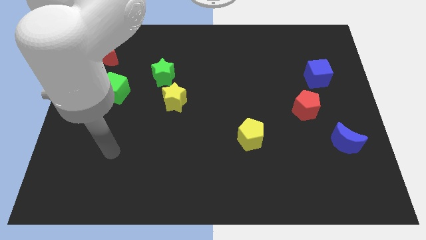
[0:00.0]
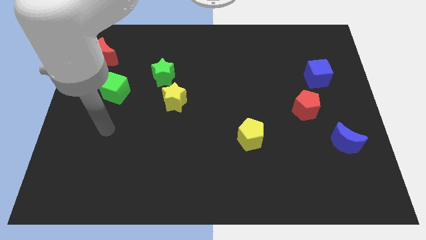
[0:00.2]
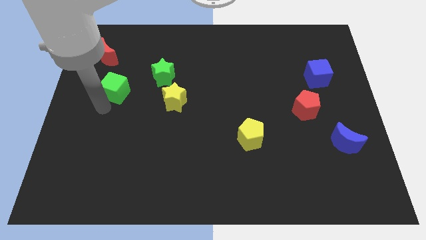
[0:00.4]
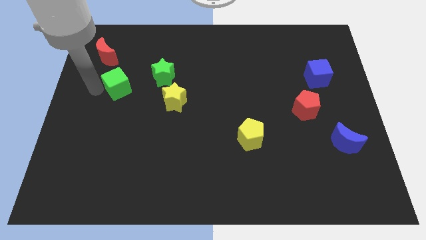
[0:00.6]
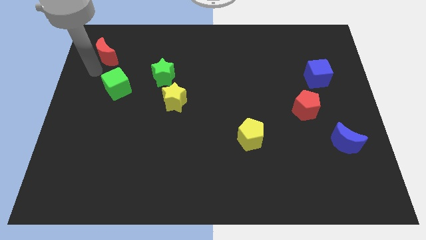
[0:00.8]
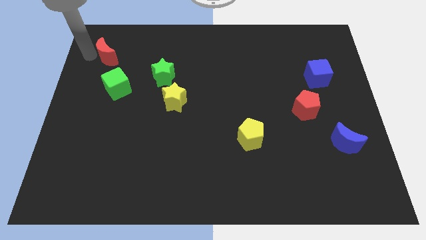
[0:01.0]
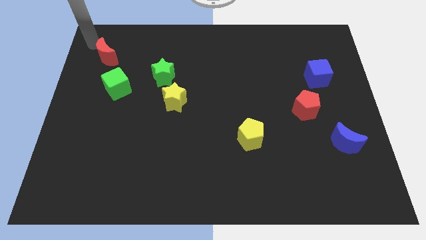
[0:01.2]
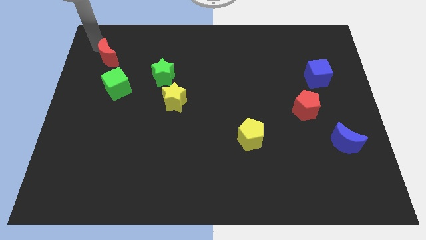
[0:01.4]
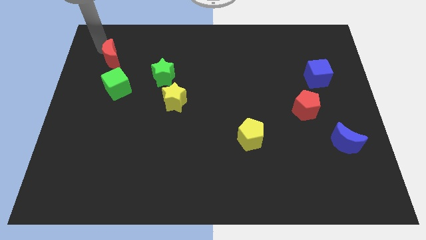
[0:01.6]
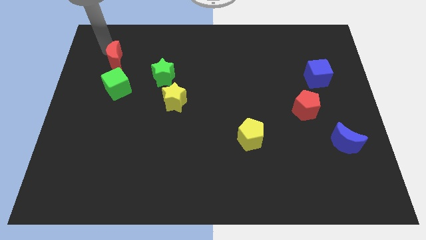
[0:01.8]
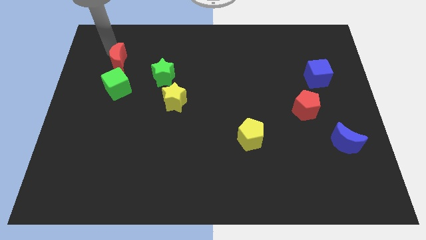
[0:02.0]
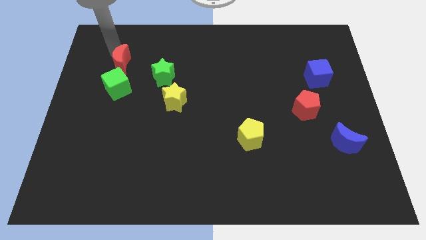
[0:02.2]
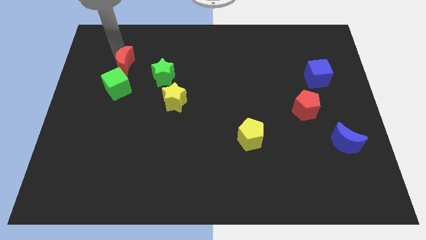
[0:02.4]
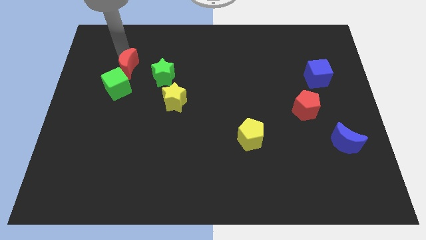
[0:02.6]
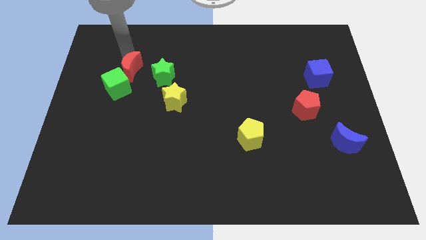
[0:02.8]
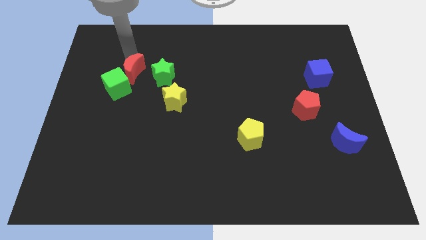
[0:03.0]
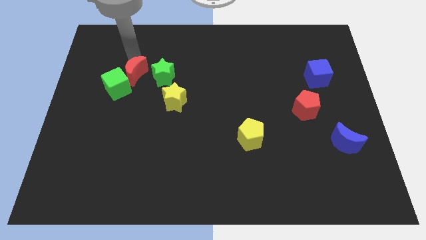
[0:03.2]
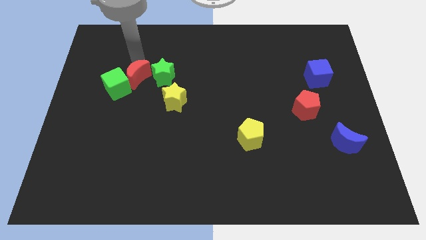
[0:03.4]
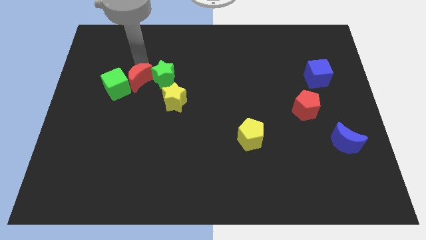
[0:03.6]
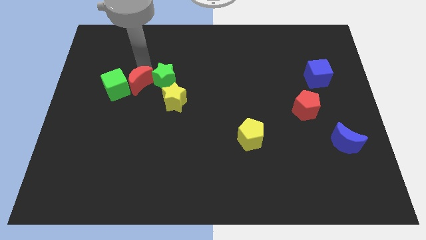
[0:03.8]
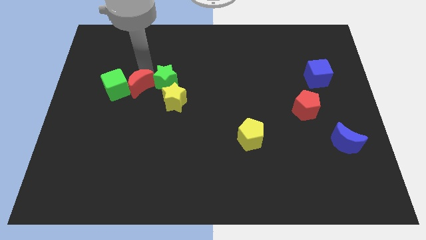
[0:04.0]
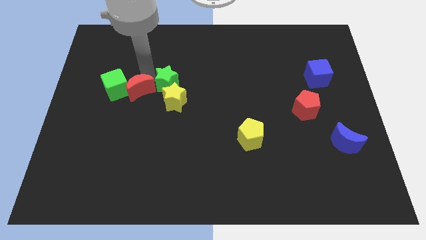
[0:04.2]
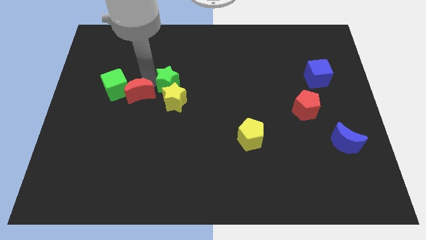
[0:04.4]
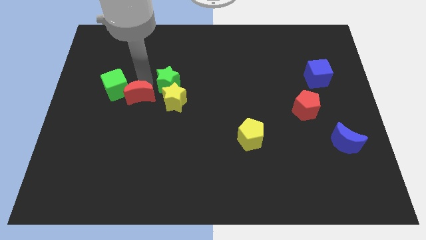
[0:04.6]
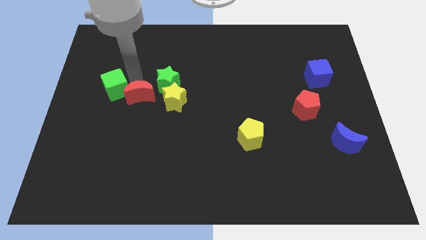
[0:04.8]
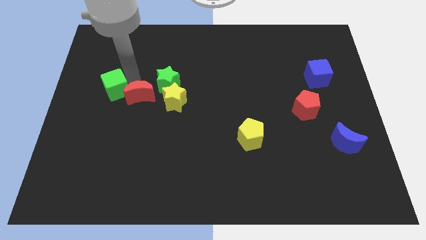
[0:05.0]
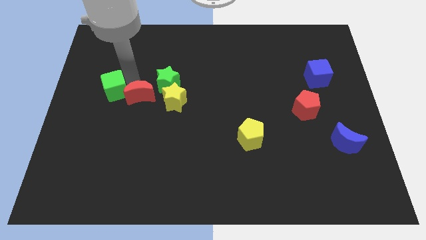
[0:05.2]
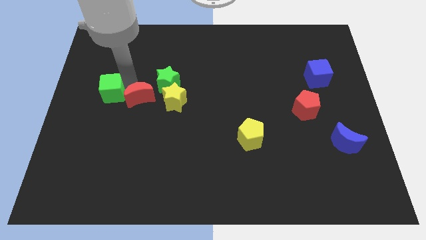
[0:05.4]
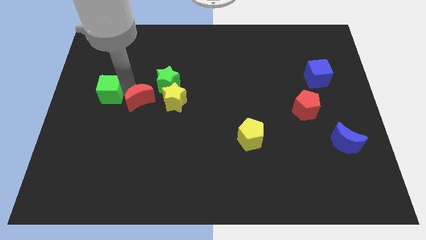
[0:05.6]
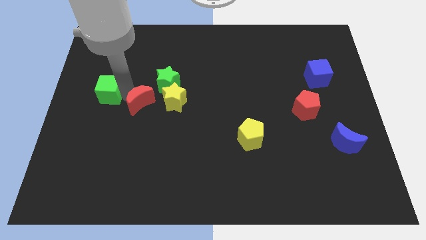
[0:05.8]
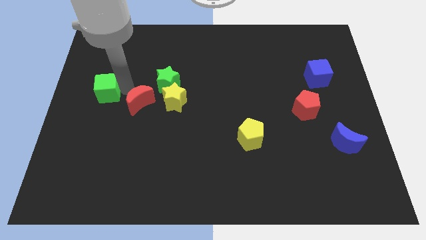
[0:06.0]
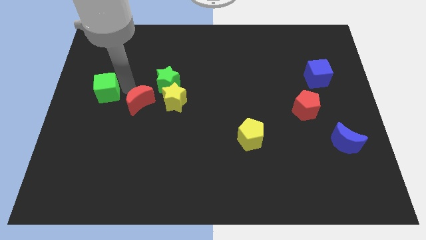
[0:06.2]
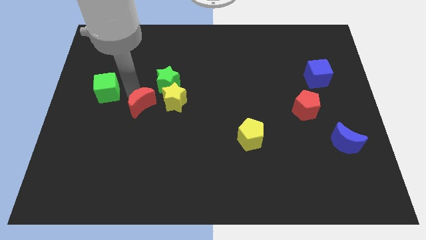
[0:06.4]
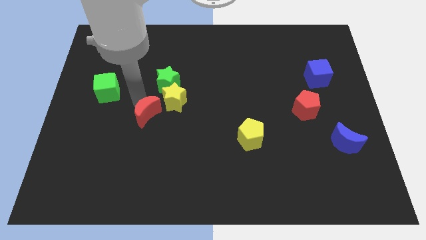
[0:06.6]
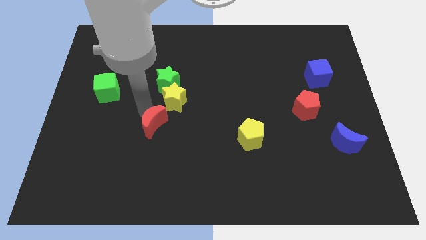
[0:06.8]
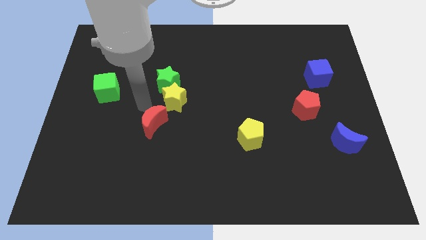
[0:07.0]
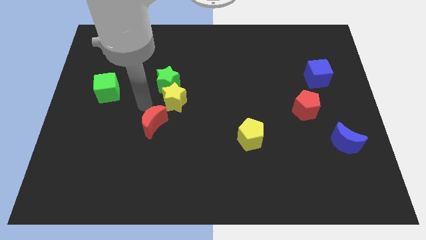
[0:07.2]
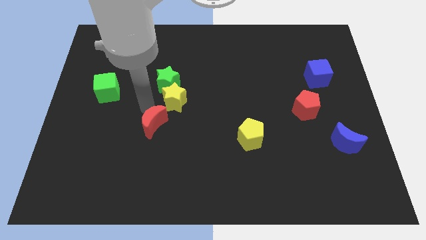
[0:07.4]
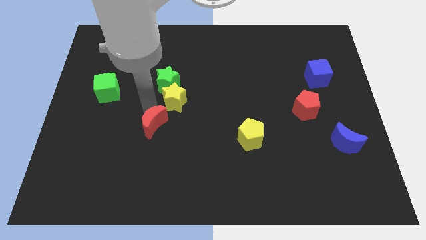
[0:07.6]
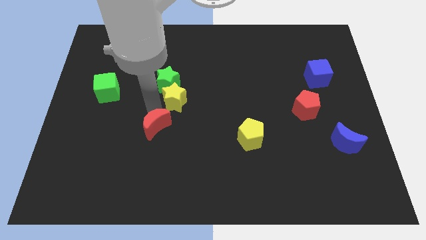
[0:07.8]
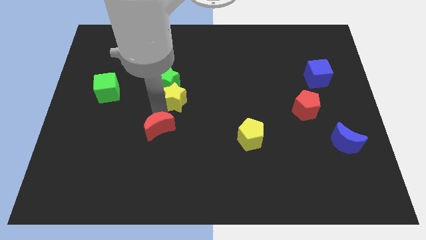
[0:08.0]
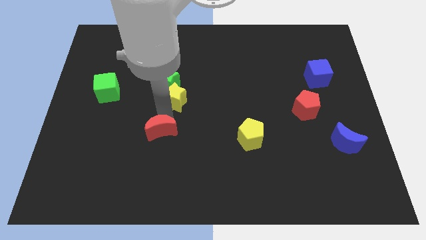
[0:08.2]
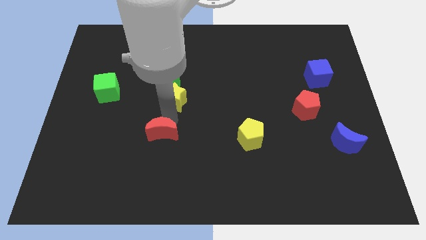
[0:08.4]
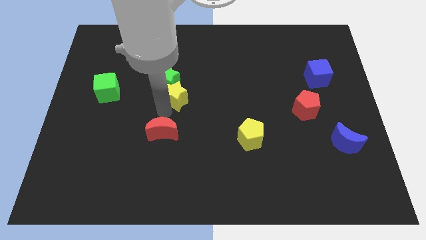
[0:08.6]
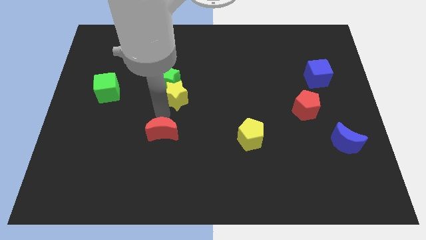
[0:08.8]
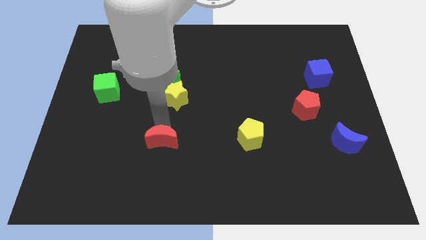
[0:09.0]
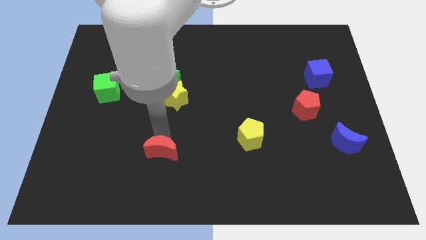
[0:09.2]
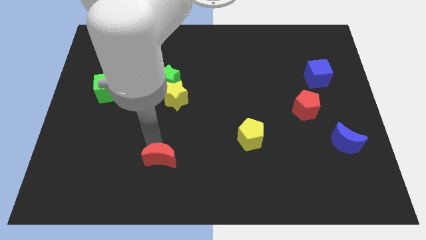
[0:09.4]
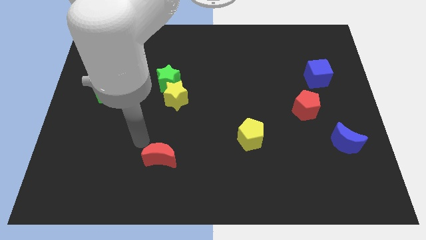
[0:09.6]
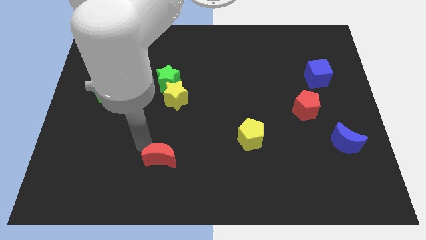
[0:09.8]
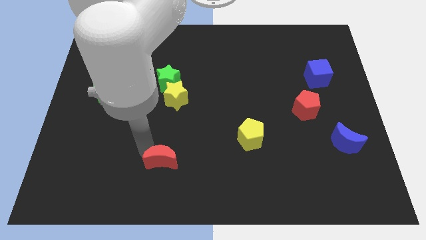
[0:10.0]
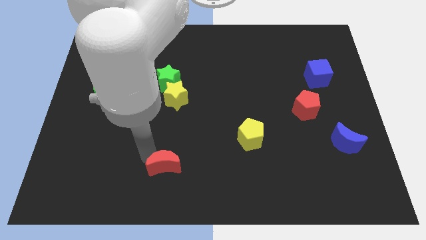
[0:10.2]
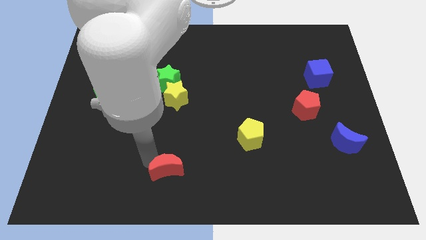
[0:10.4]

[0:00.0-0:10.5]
slide the red moon to the bottom

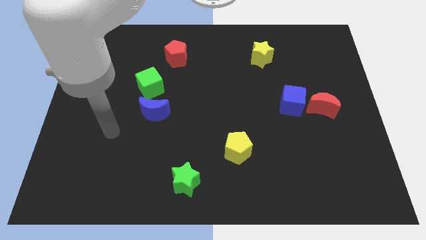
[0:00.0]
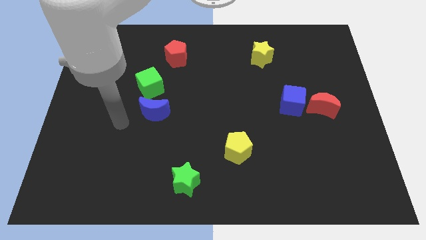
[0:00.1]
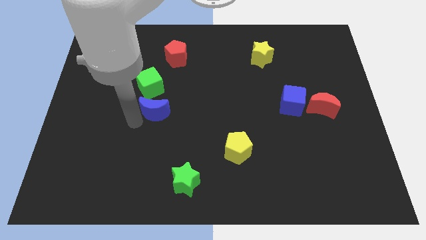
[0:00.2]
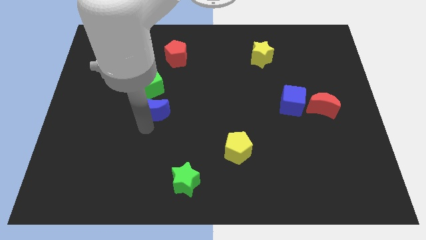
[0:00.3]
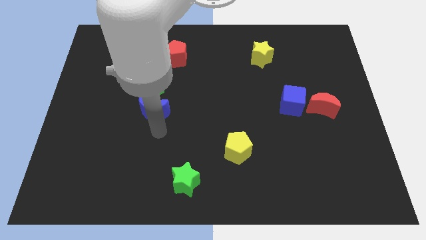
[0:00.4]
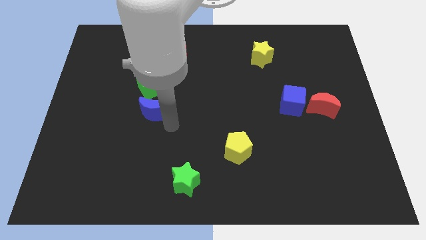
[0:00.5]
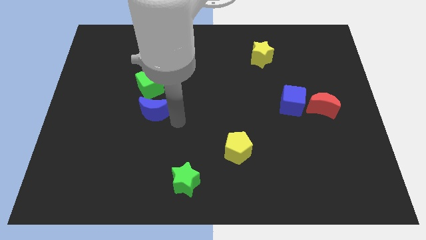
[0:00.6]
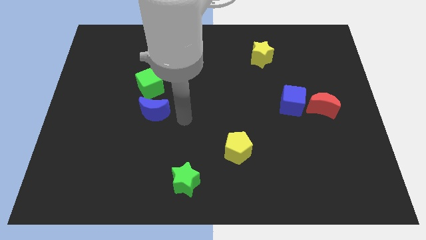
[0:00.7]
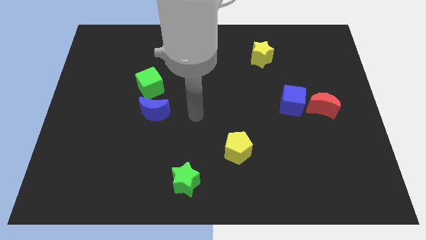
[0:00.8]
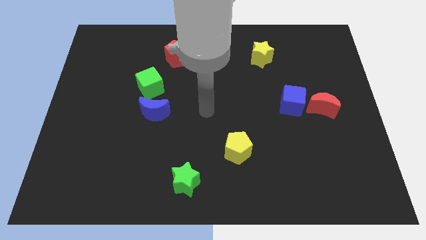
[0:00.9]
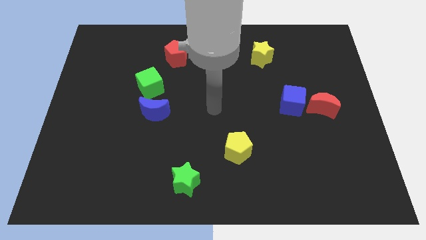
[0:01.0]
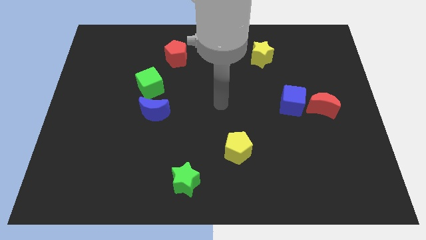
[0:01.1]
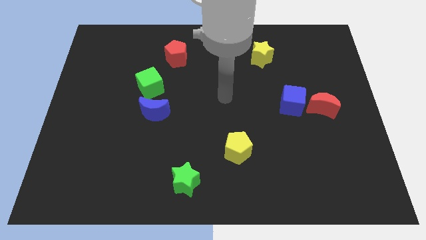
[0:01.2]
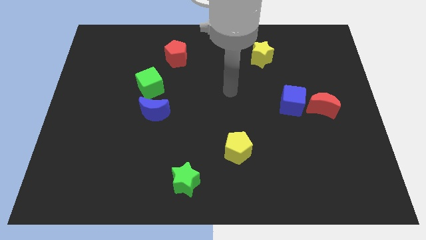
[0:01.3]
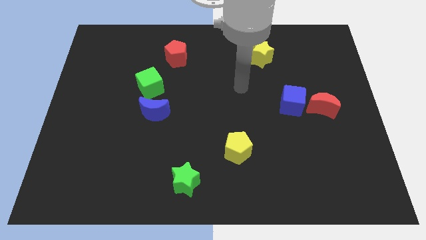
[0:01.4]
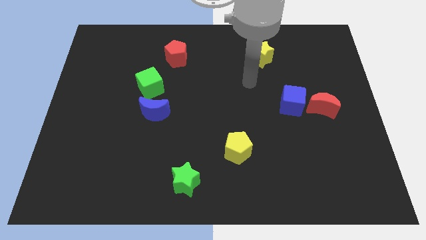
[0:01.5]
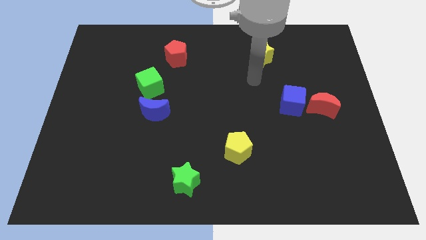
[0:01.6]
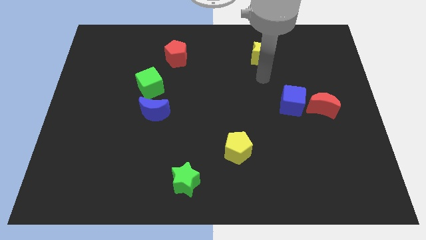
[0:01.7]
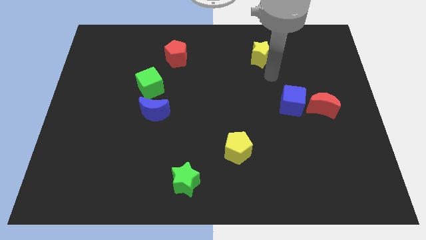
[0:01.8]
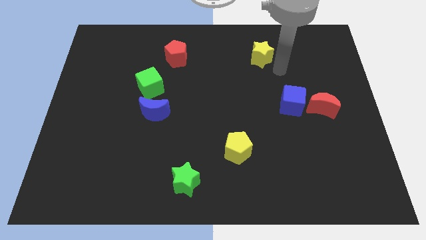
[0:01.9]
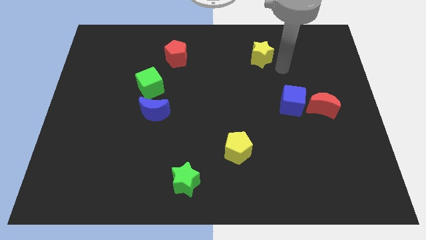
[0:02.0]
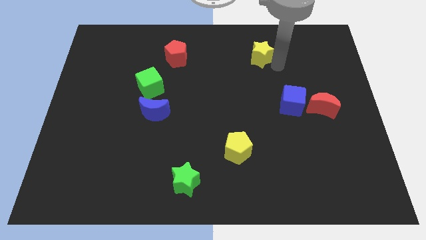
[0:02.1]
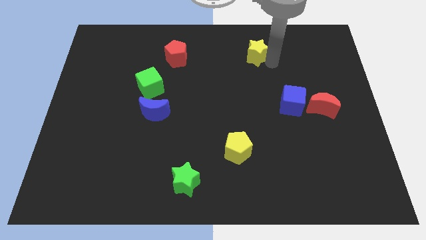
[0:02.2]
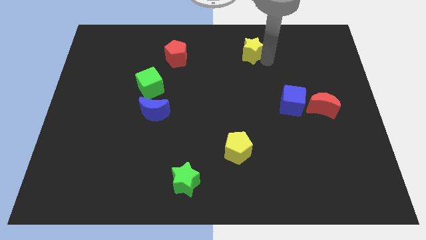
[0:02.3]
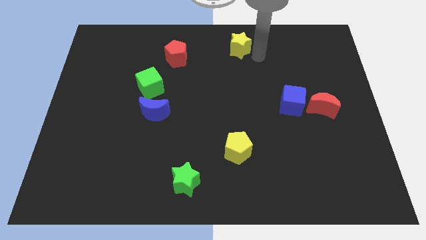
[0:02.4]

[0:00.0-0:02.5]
push the yellow star to the towards your base
